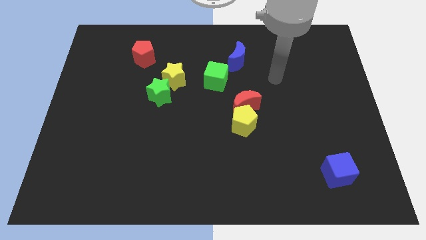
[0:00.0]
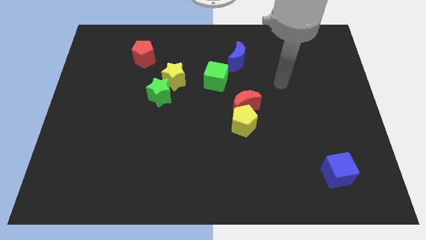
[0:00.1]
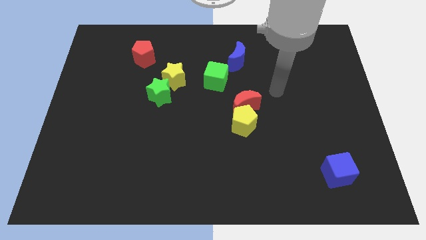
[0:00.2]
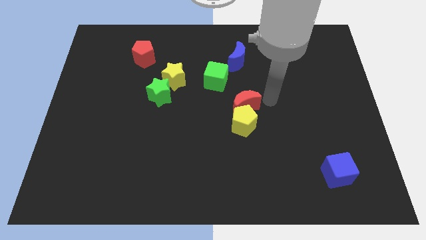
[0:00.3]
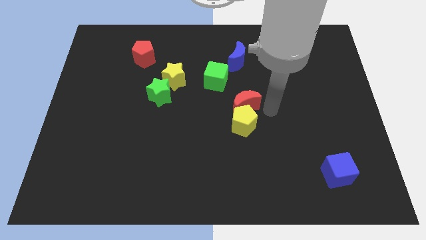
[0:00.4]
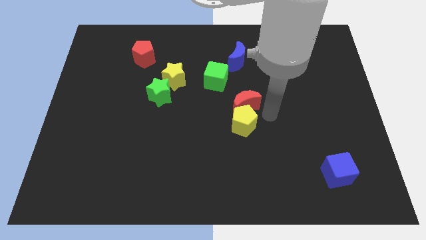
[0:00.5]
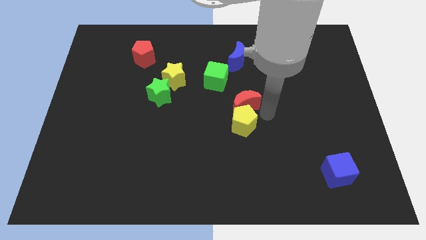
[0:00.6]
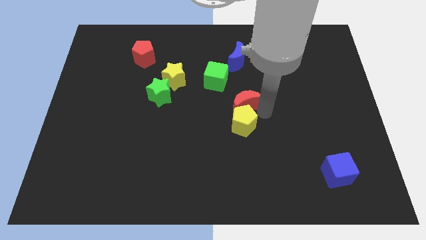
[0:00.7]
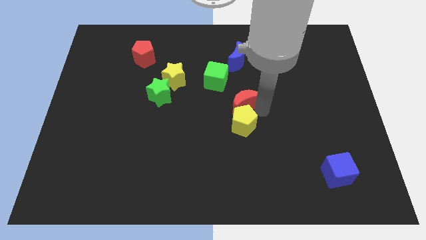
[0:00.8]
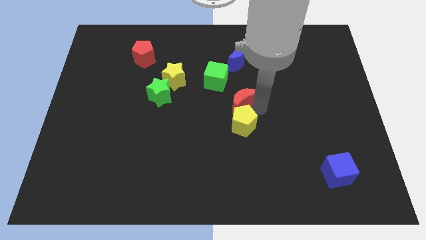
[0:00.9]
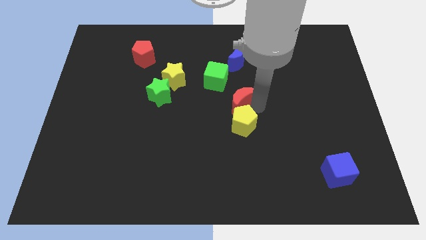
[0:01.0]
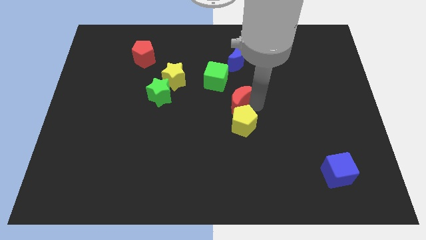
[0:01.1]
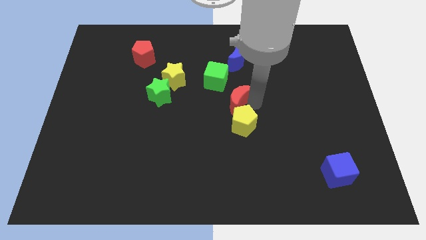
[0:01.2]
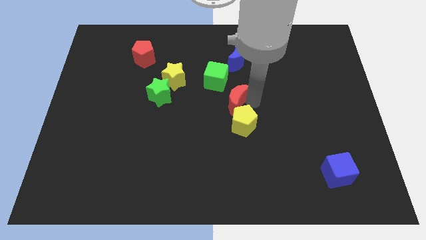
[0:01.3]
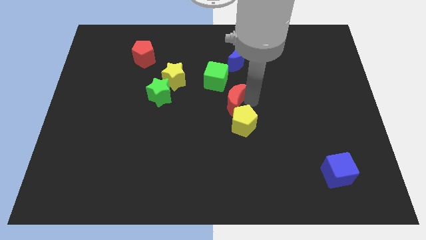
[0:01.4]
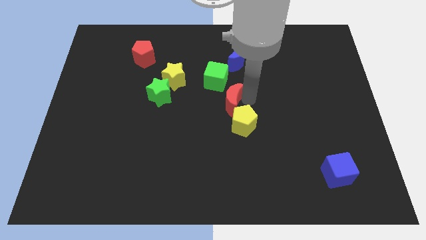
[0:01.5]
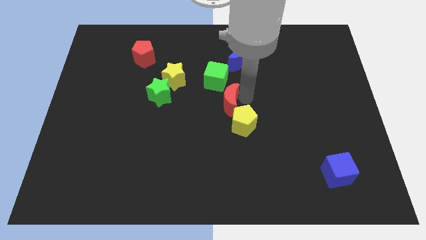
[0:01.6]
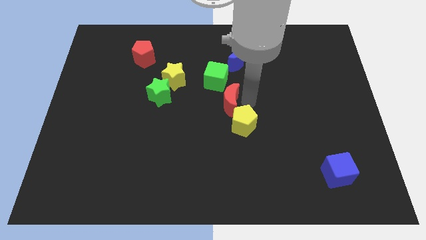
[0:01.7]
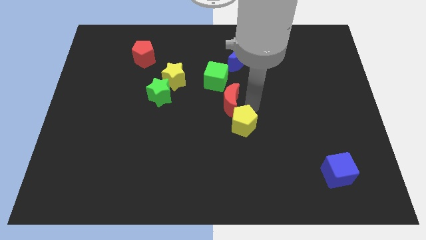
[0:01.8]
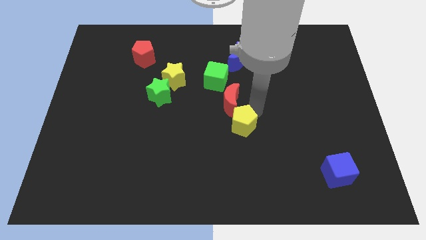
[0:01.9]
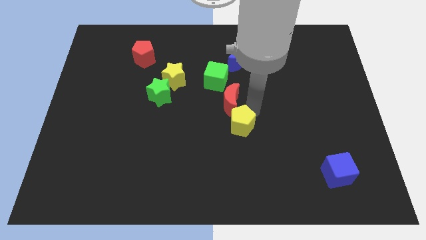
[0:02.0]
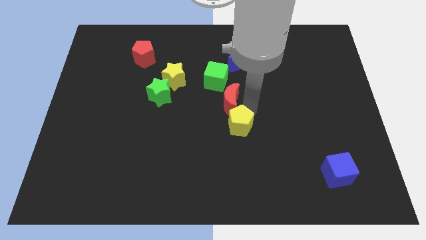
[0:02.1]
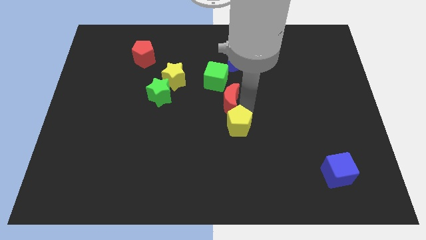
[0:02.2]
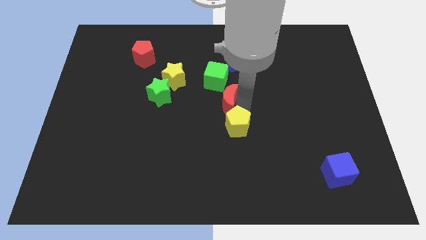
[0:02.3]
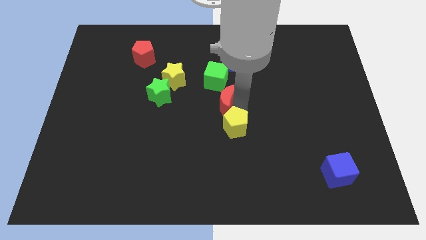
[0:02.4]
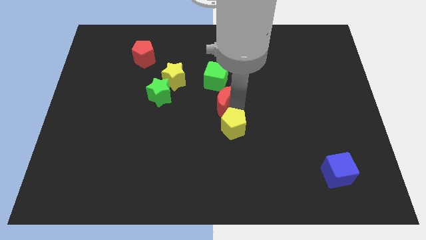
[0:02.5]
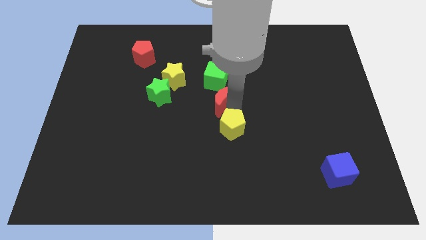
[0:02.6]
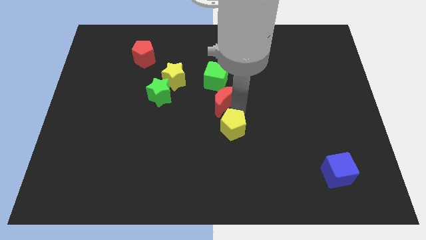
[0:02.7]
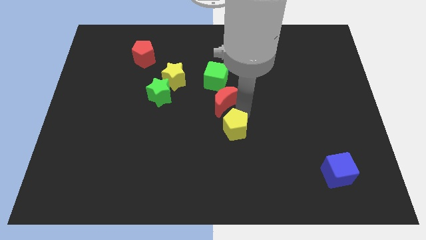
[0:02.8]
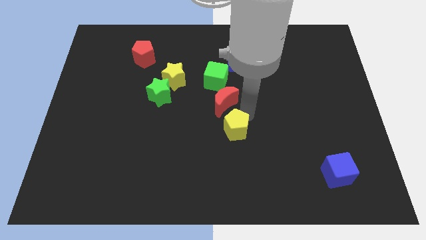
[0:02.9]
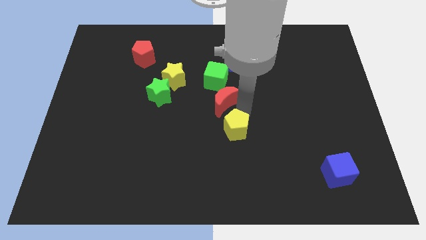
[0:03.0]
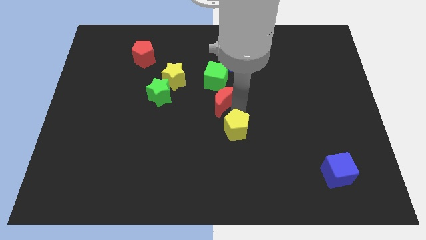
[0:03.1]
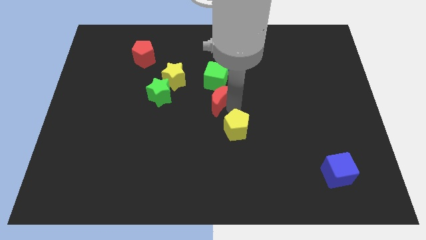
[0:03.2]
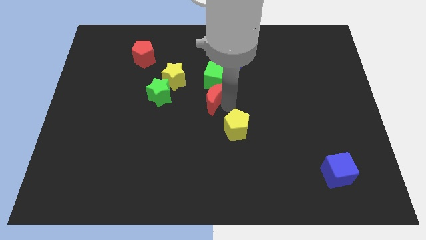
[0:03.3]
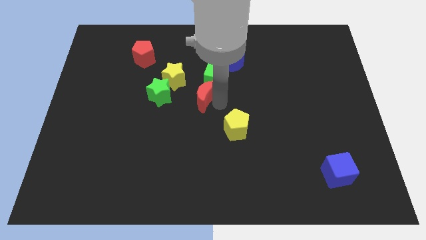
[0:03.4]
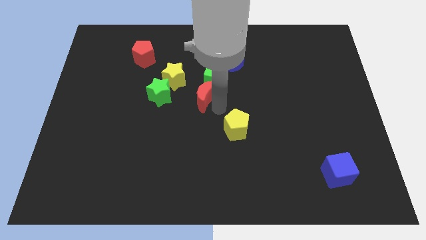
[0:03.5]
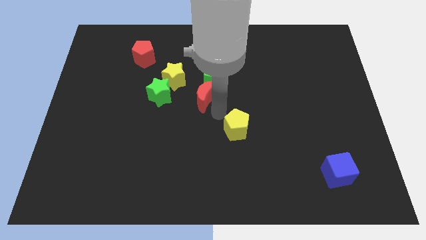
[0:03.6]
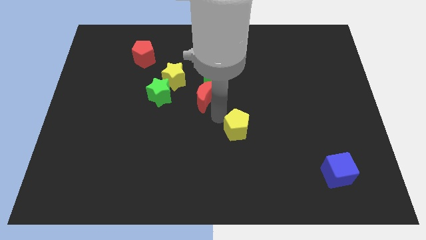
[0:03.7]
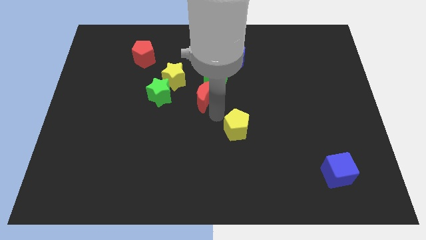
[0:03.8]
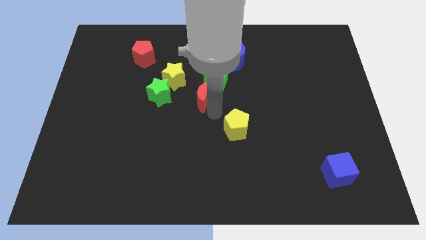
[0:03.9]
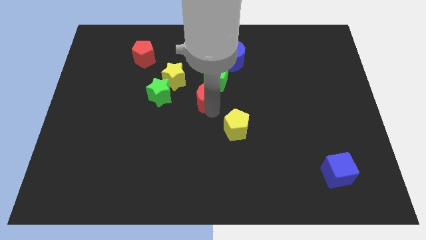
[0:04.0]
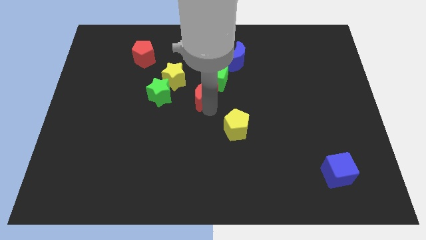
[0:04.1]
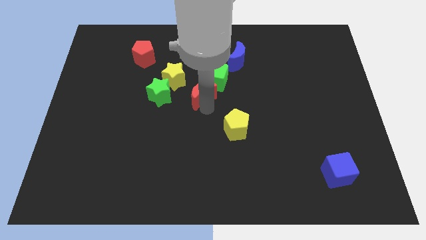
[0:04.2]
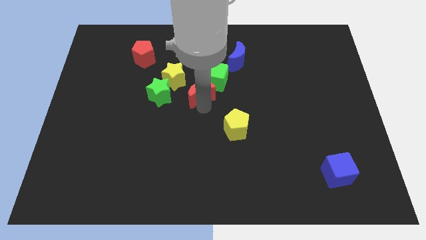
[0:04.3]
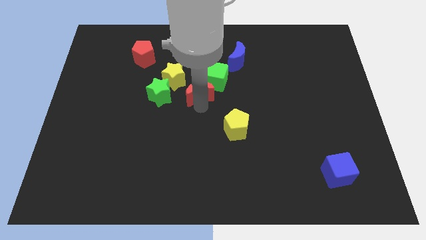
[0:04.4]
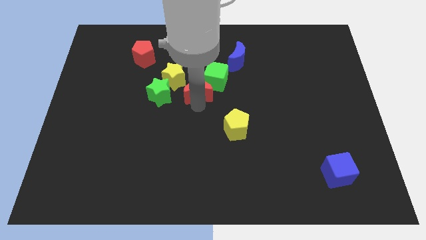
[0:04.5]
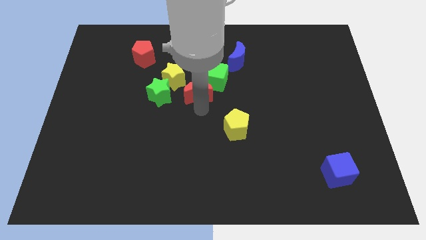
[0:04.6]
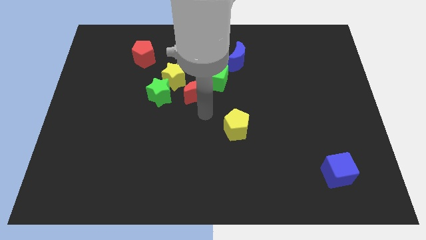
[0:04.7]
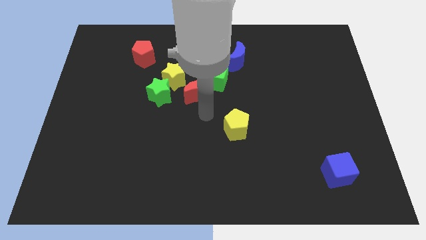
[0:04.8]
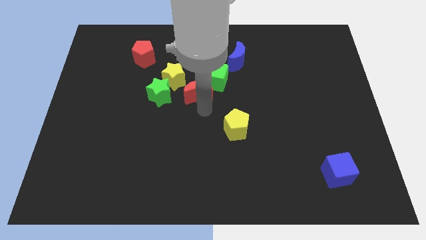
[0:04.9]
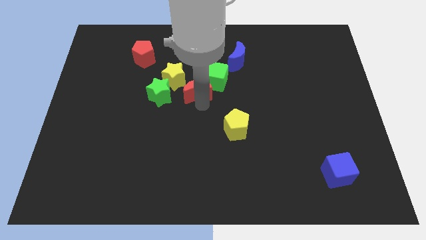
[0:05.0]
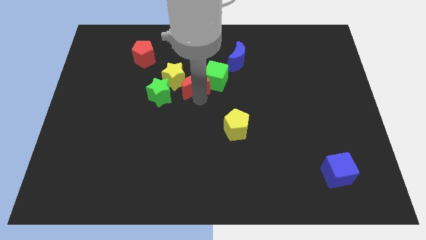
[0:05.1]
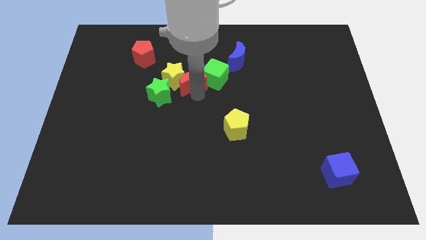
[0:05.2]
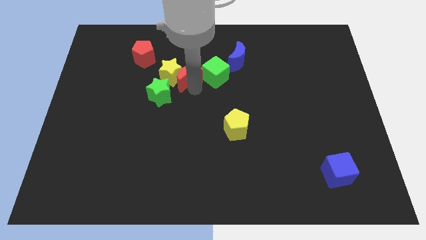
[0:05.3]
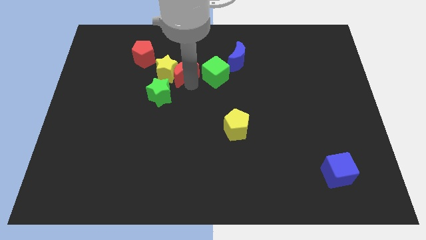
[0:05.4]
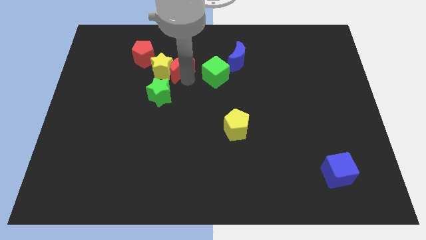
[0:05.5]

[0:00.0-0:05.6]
slide the red moon to the bottom right of the red pentagon

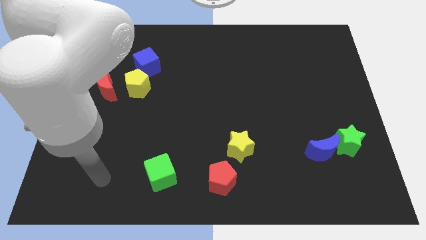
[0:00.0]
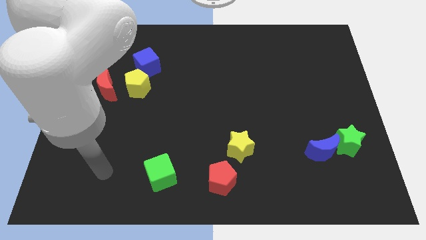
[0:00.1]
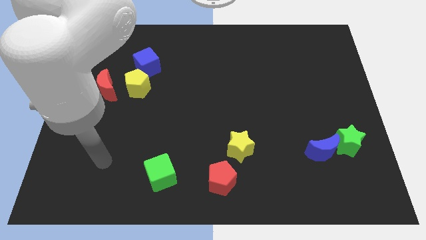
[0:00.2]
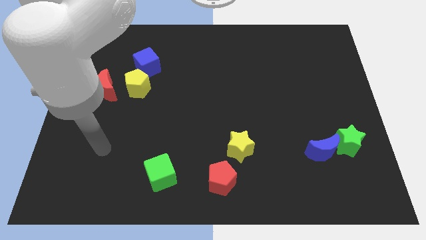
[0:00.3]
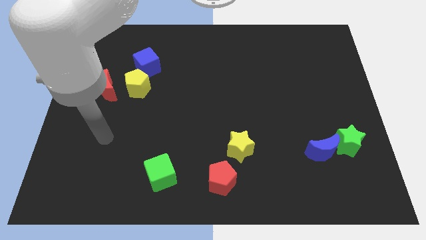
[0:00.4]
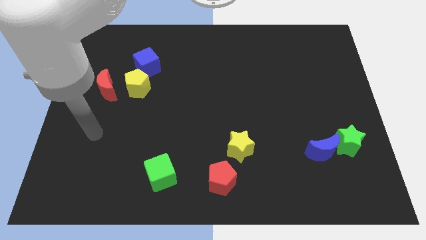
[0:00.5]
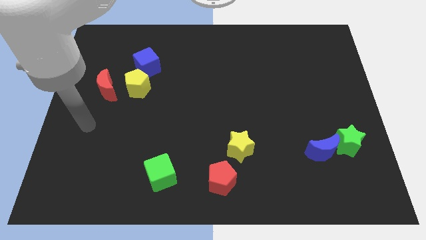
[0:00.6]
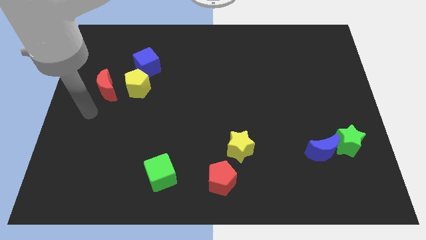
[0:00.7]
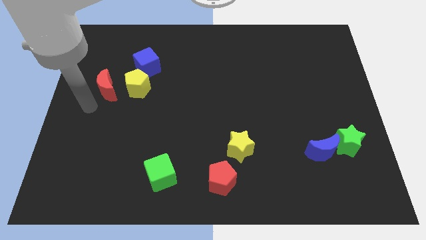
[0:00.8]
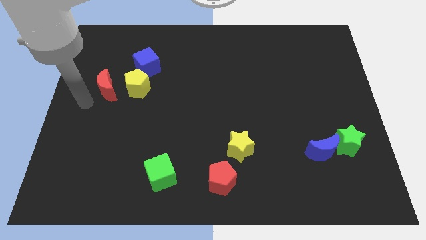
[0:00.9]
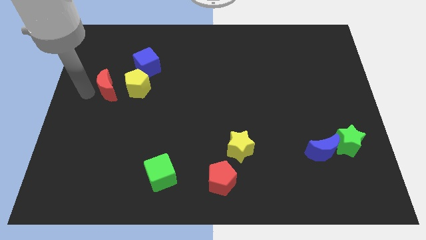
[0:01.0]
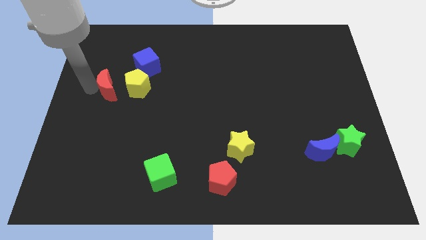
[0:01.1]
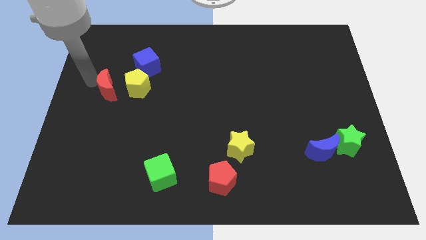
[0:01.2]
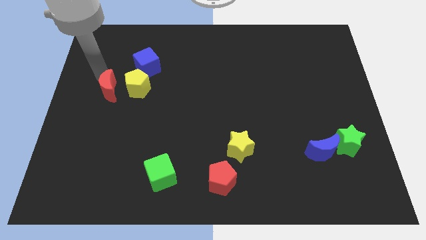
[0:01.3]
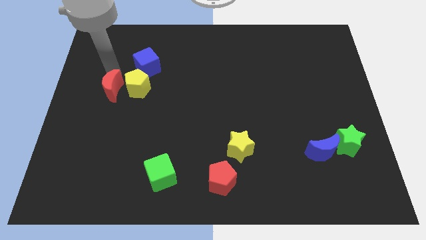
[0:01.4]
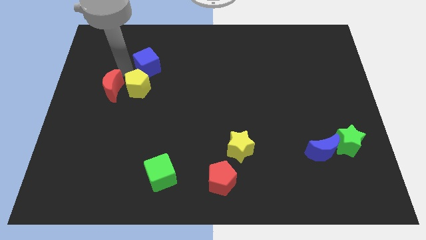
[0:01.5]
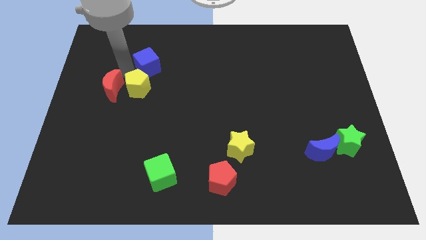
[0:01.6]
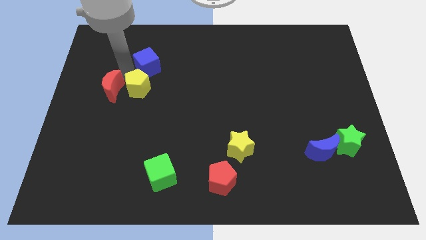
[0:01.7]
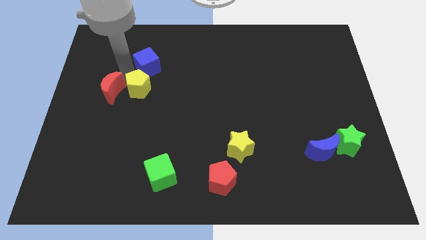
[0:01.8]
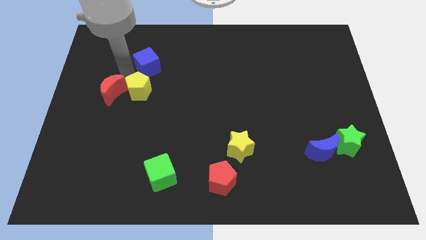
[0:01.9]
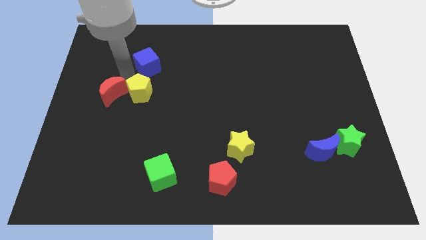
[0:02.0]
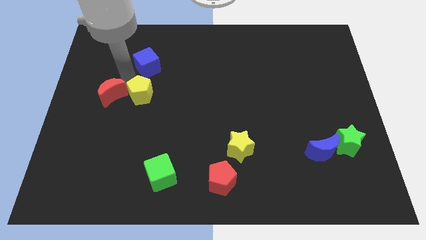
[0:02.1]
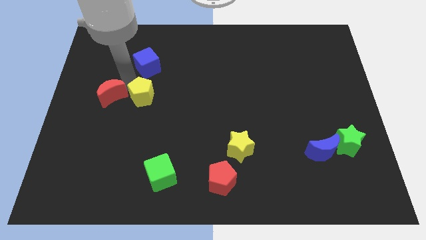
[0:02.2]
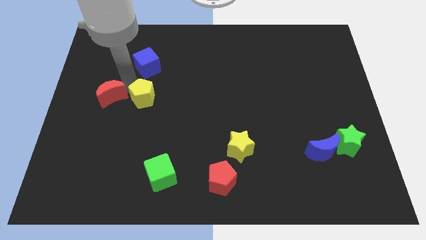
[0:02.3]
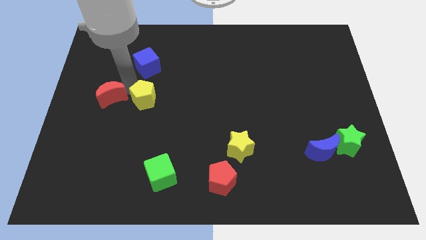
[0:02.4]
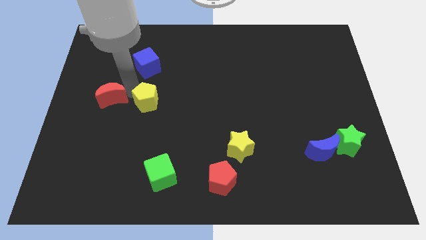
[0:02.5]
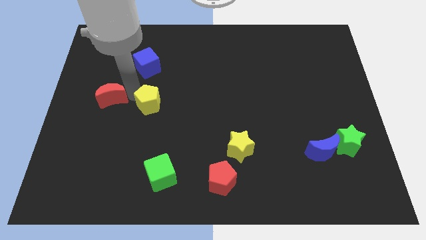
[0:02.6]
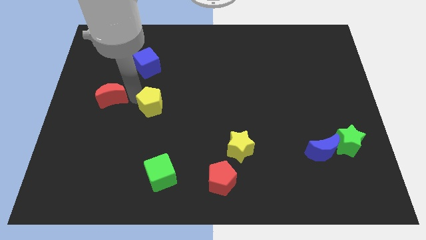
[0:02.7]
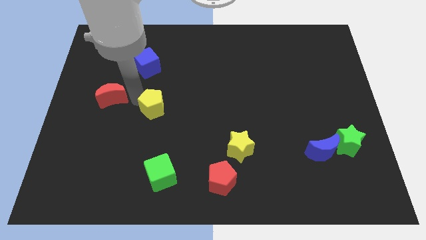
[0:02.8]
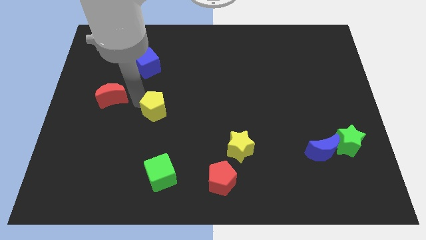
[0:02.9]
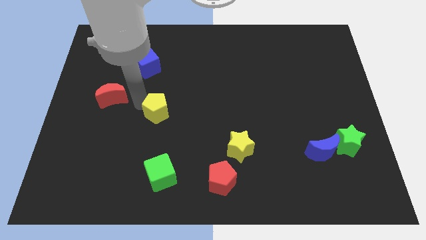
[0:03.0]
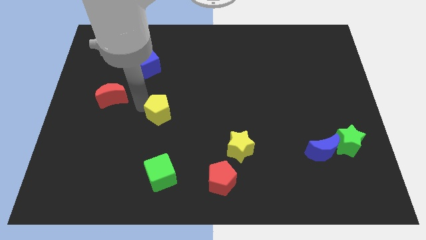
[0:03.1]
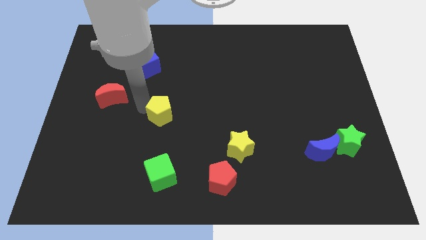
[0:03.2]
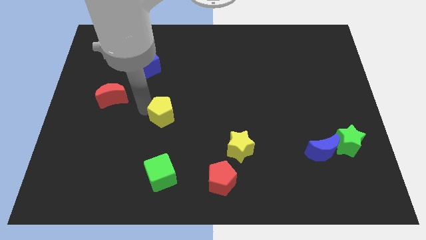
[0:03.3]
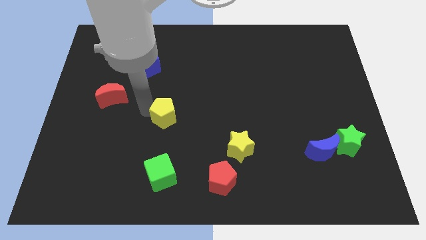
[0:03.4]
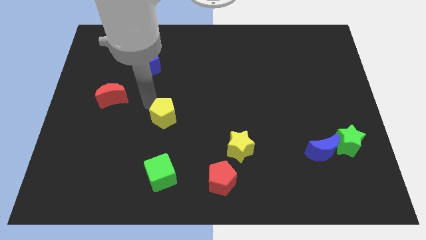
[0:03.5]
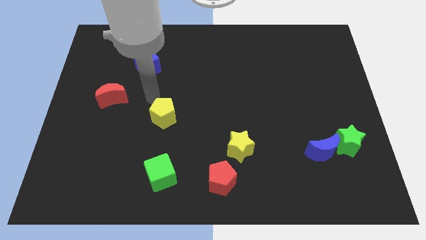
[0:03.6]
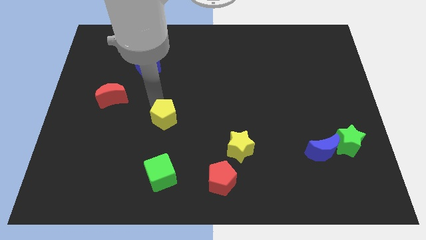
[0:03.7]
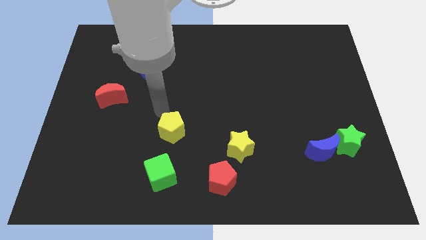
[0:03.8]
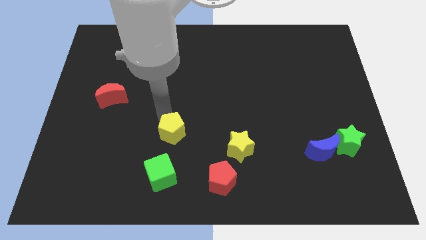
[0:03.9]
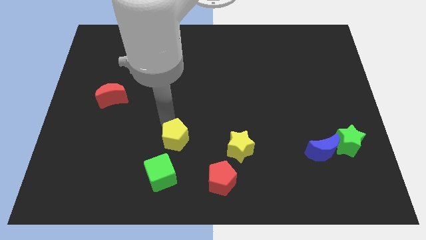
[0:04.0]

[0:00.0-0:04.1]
push the yellow pentagon to the top right side of the green cube
